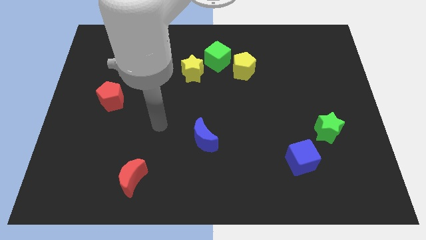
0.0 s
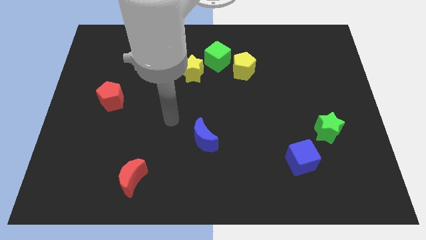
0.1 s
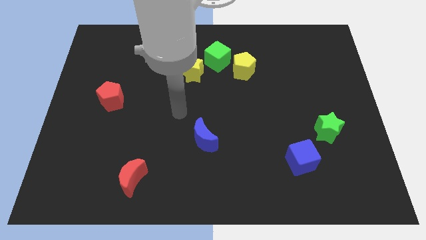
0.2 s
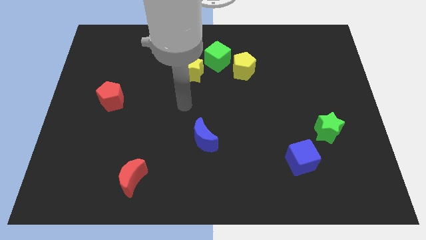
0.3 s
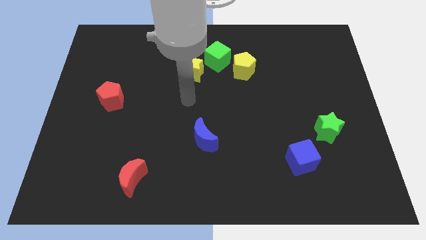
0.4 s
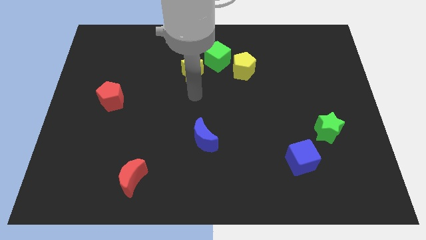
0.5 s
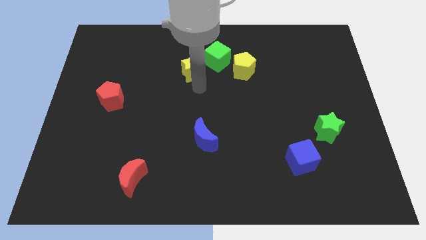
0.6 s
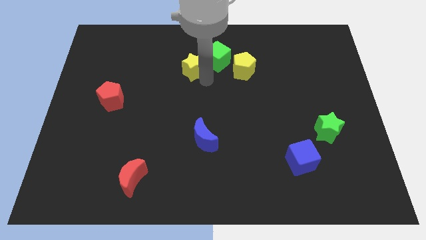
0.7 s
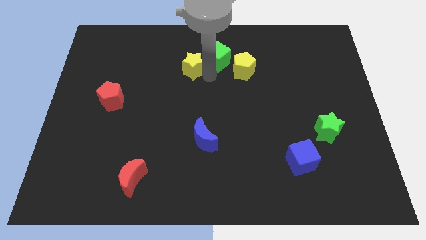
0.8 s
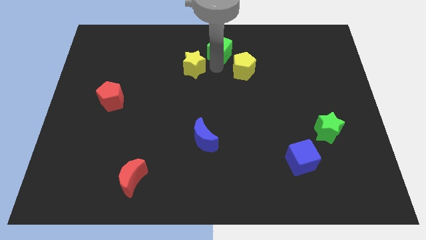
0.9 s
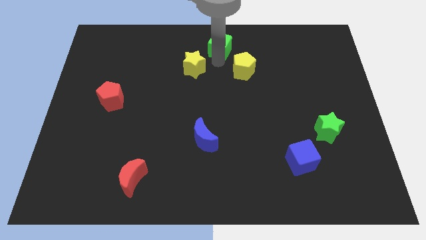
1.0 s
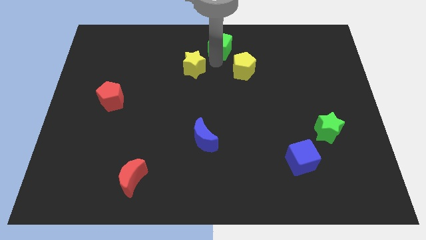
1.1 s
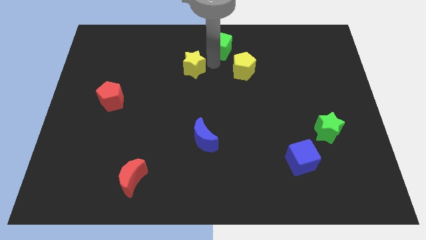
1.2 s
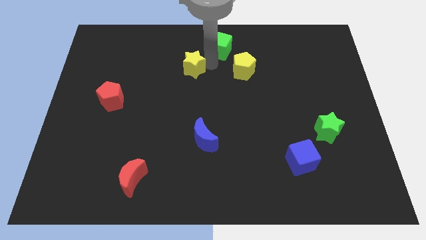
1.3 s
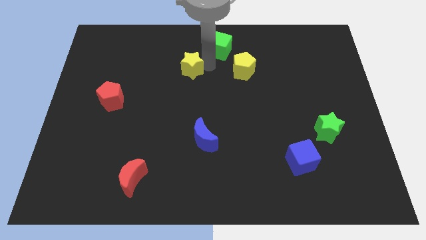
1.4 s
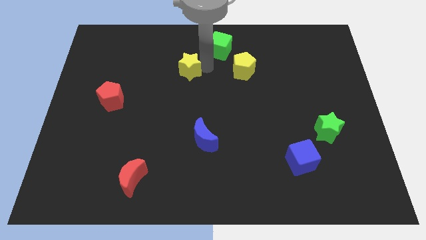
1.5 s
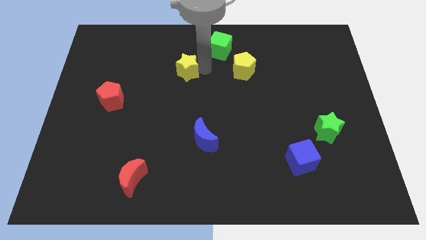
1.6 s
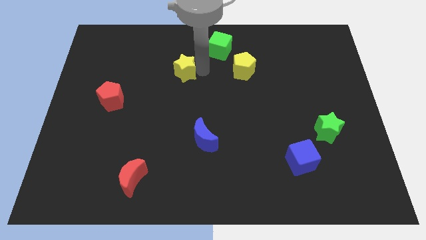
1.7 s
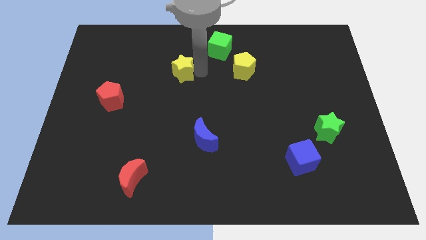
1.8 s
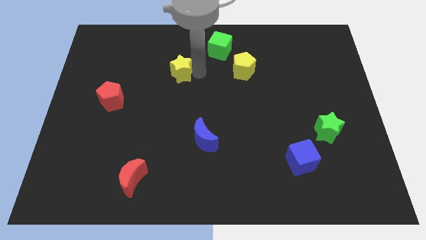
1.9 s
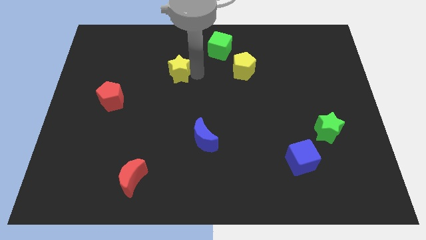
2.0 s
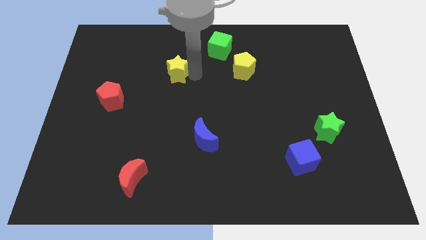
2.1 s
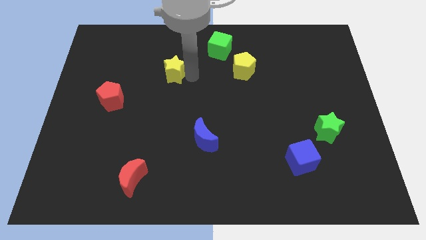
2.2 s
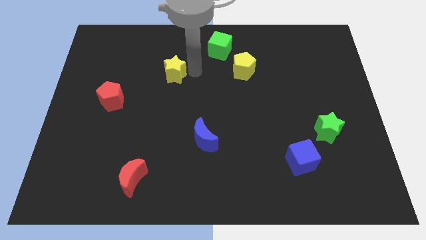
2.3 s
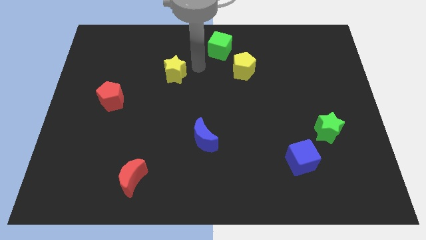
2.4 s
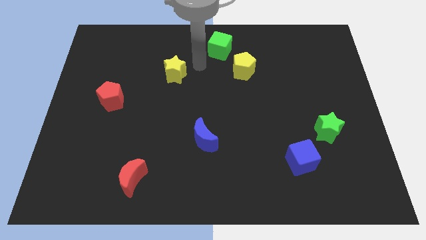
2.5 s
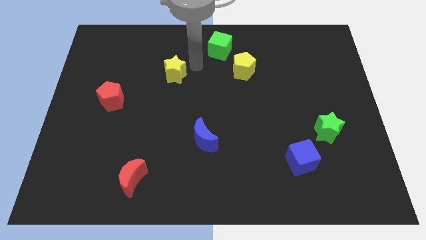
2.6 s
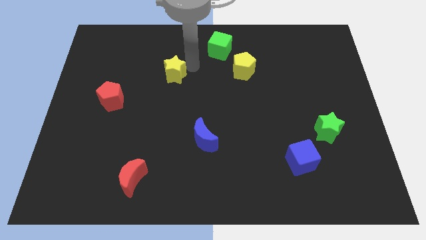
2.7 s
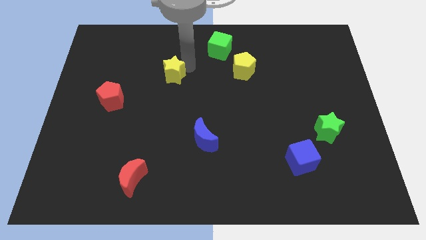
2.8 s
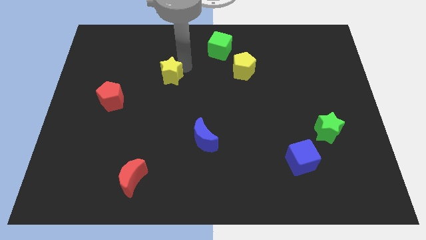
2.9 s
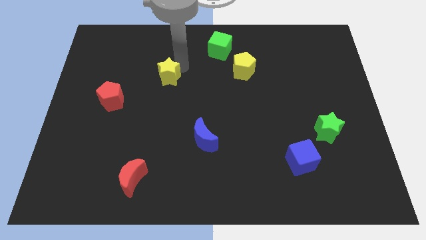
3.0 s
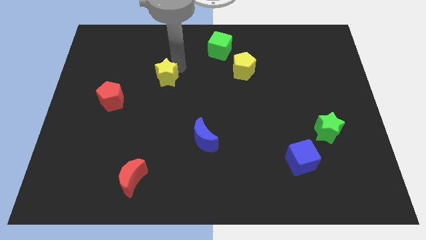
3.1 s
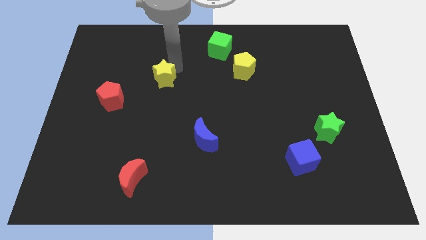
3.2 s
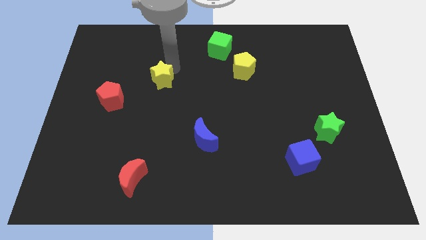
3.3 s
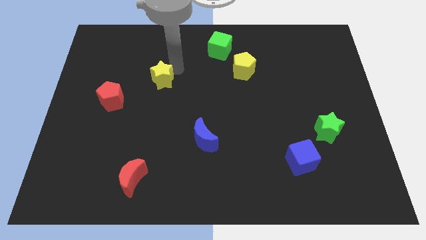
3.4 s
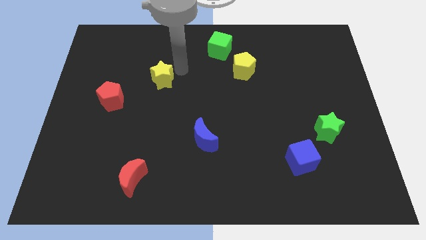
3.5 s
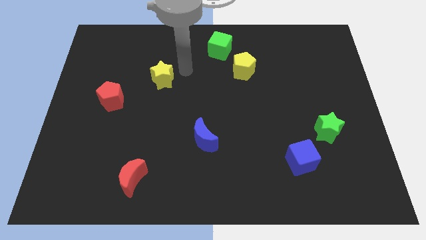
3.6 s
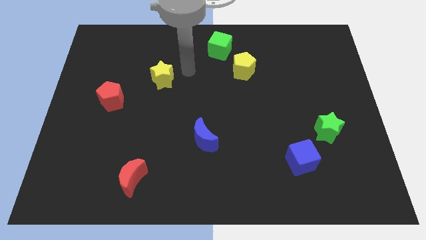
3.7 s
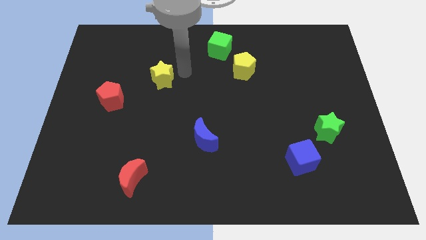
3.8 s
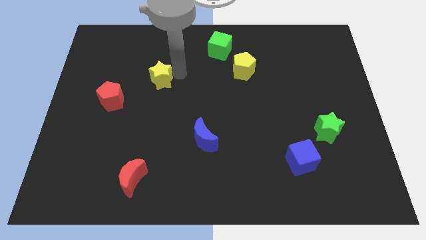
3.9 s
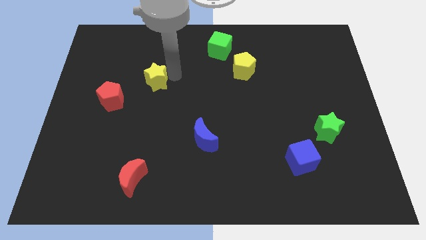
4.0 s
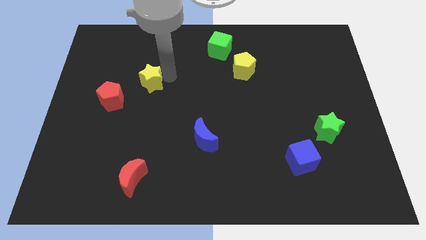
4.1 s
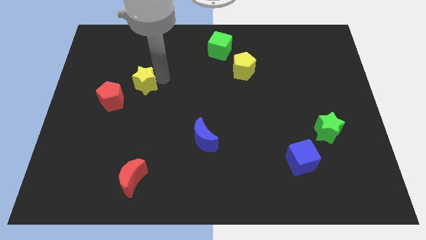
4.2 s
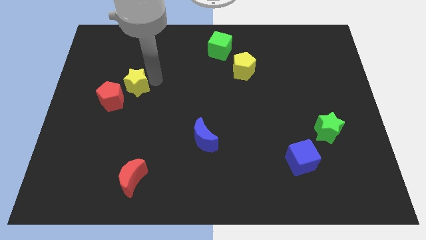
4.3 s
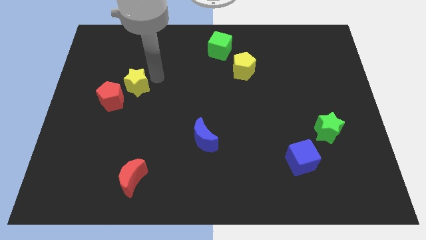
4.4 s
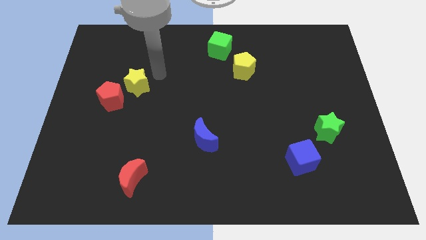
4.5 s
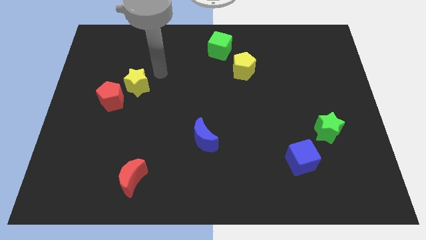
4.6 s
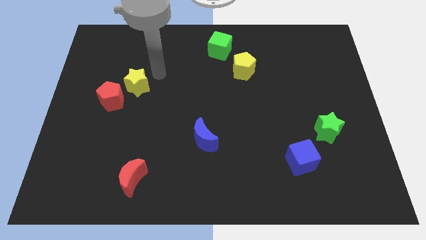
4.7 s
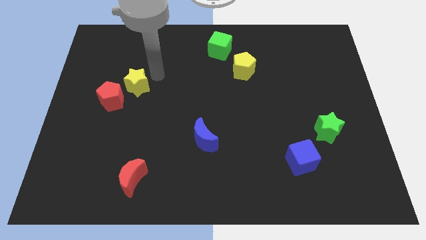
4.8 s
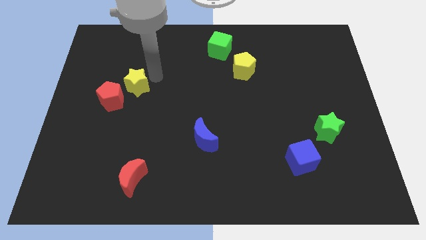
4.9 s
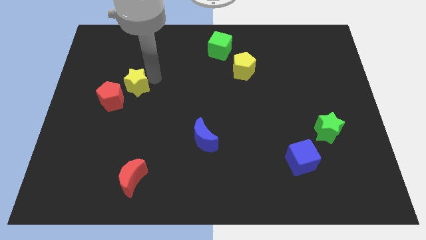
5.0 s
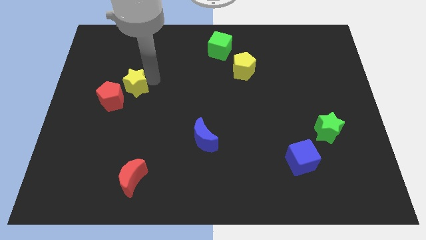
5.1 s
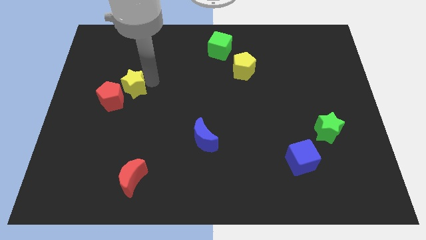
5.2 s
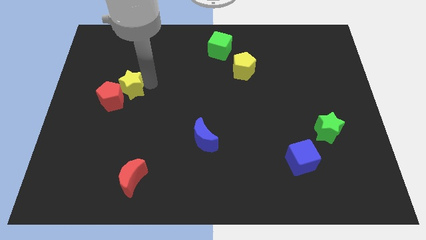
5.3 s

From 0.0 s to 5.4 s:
move the yellow star close to the red pentagon

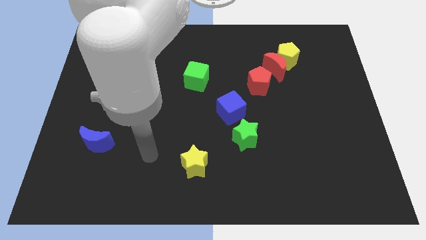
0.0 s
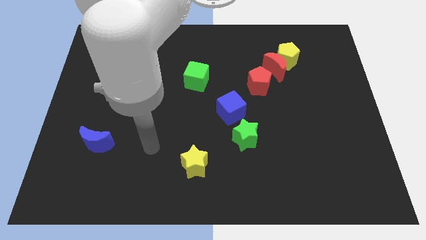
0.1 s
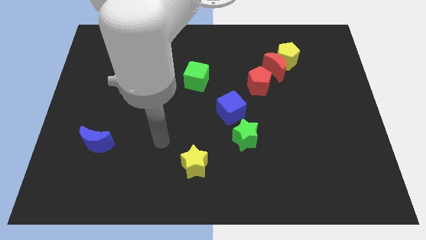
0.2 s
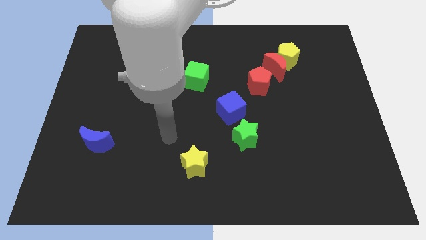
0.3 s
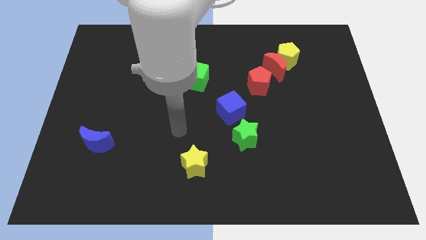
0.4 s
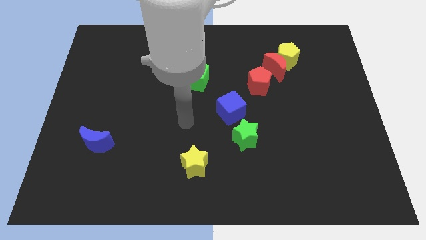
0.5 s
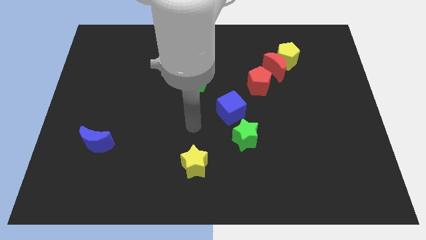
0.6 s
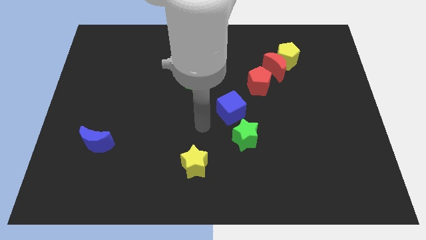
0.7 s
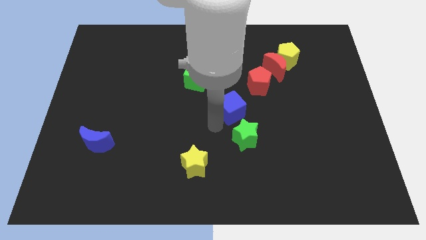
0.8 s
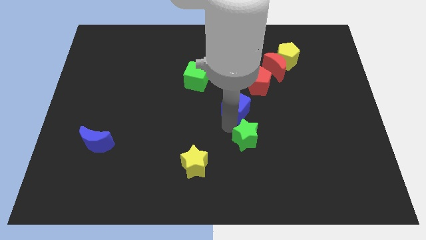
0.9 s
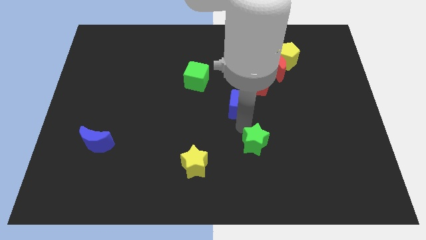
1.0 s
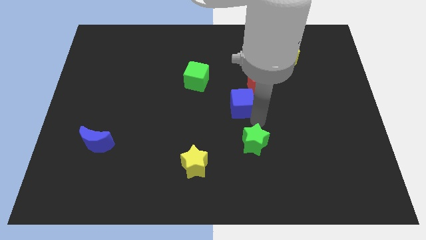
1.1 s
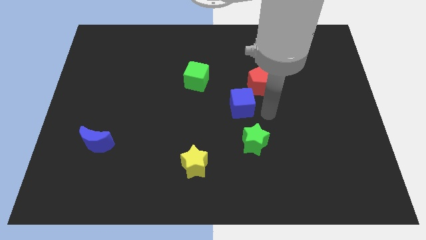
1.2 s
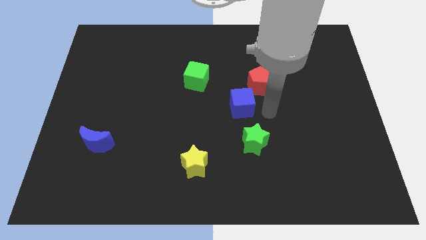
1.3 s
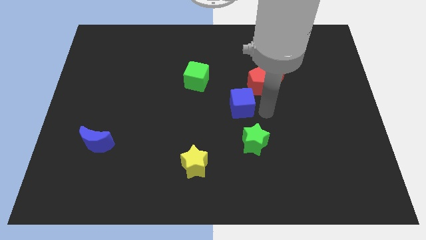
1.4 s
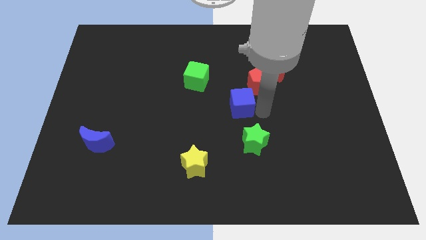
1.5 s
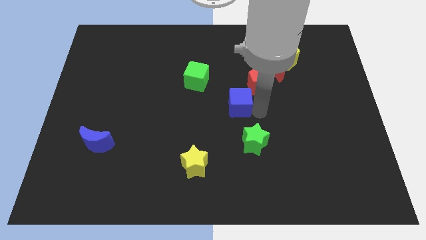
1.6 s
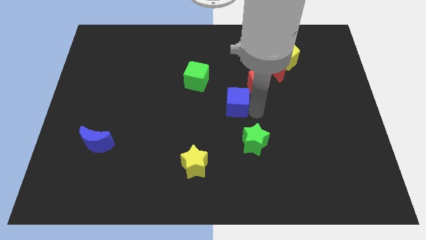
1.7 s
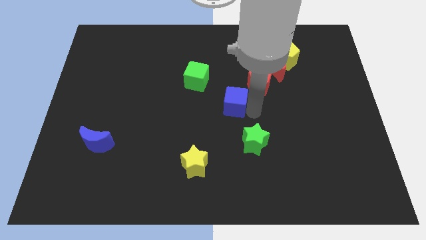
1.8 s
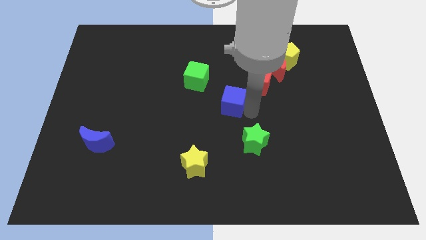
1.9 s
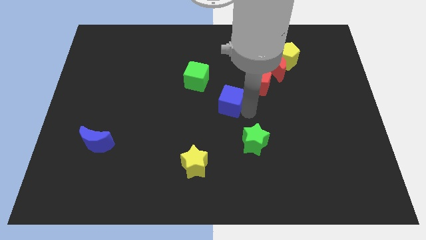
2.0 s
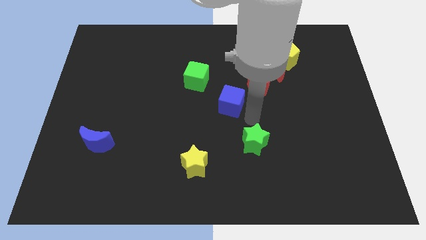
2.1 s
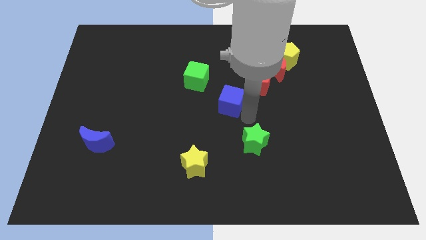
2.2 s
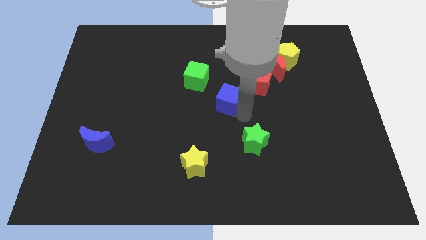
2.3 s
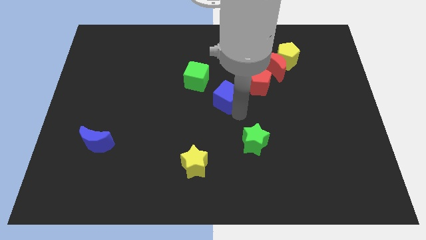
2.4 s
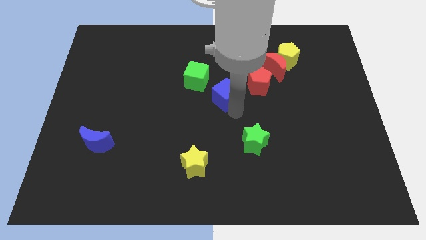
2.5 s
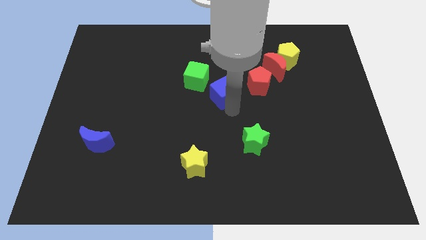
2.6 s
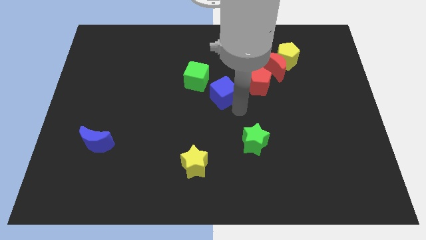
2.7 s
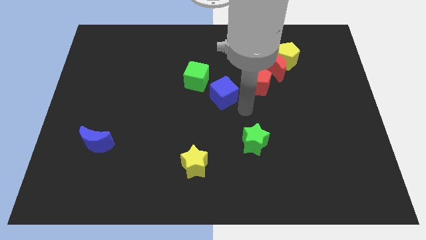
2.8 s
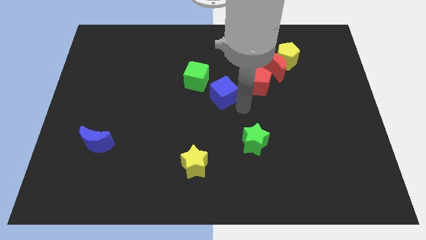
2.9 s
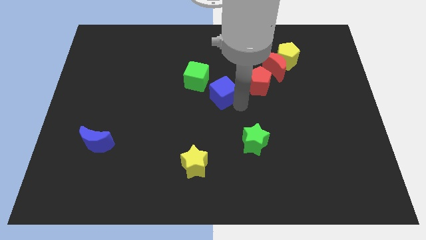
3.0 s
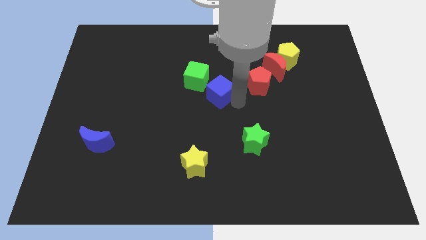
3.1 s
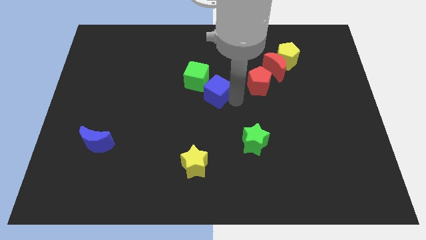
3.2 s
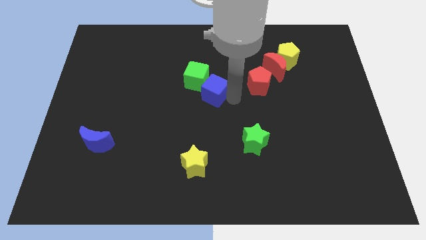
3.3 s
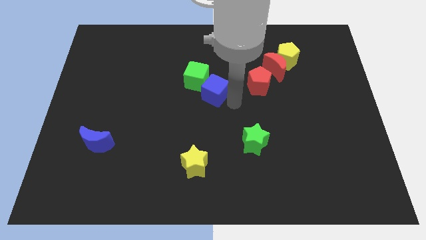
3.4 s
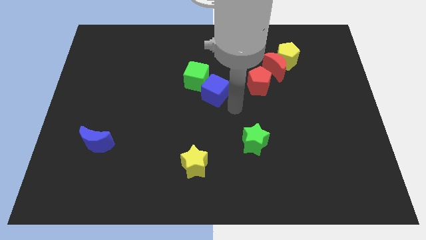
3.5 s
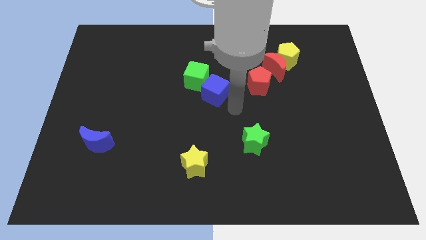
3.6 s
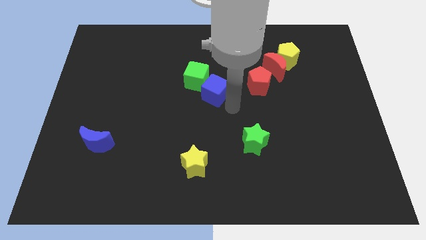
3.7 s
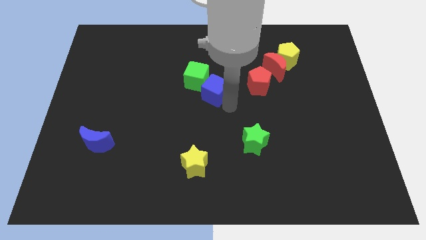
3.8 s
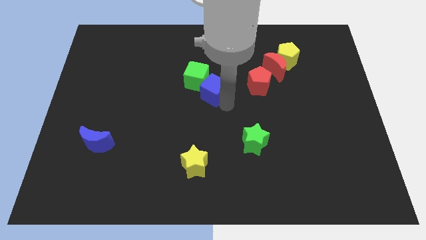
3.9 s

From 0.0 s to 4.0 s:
put the blue cube towards the green cube
